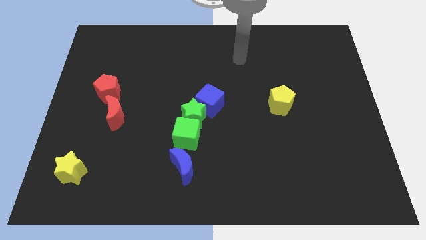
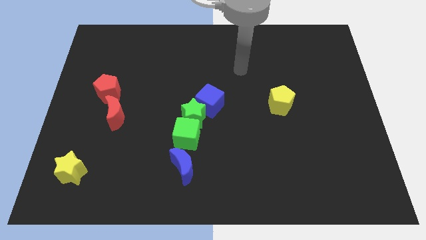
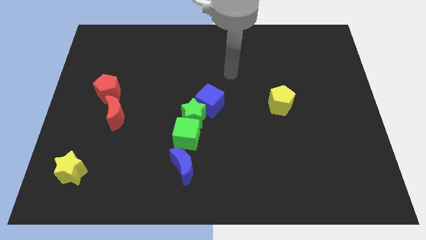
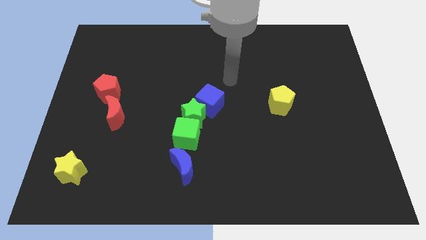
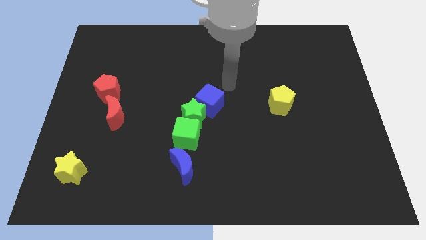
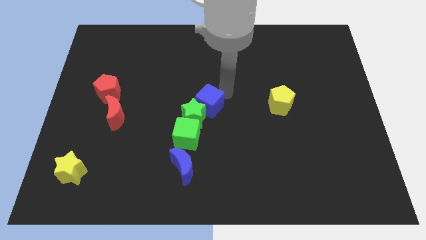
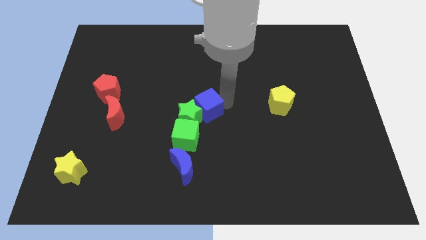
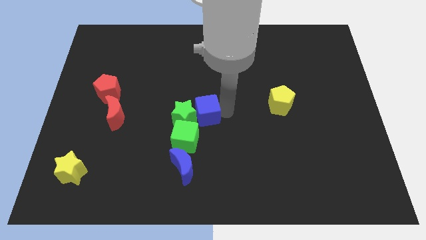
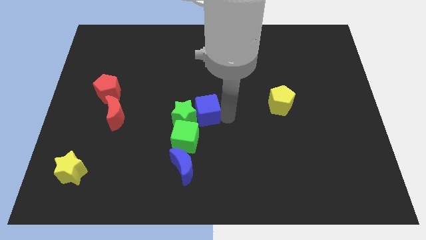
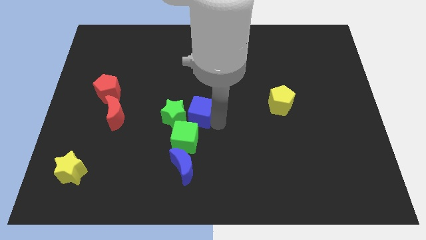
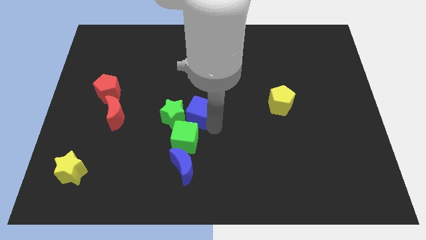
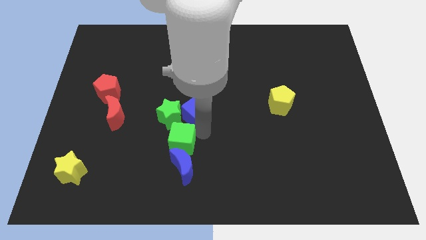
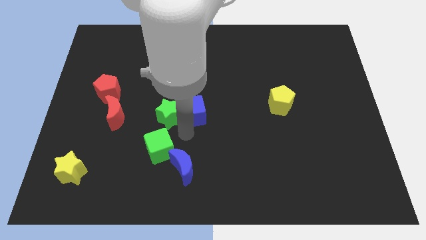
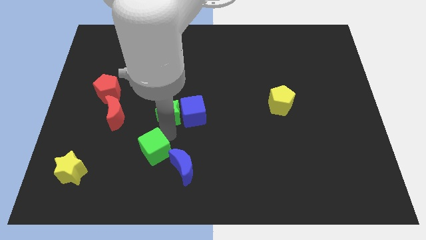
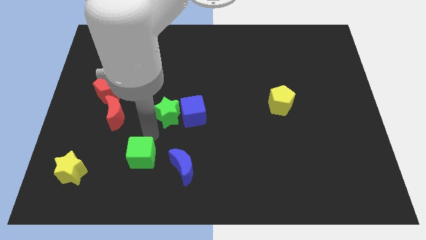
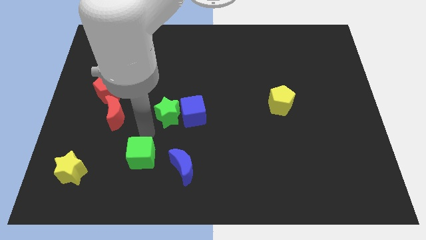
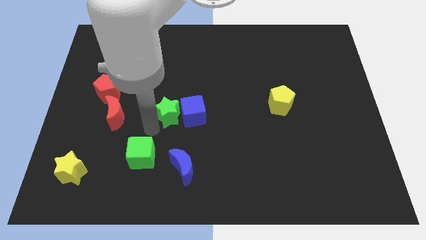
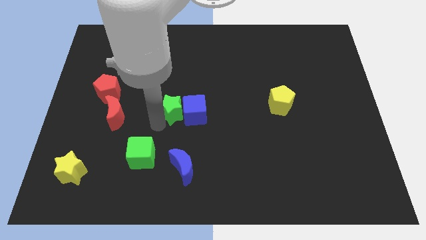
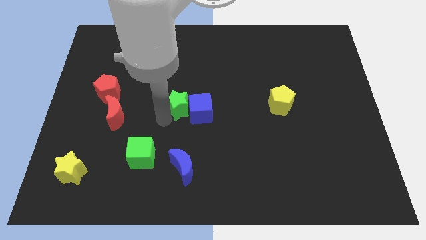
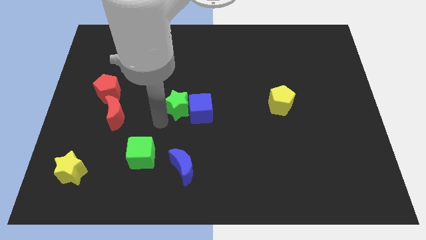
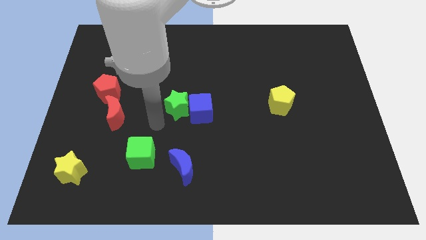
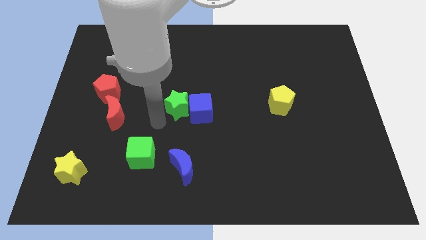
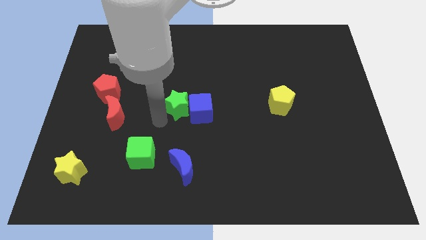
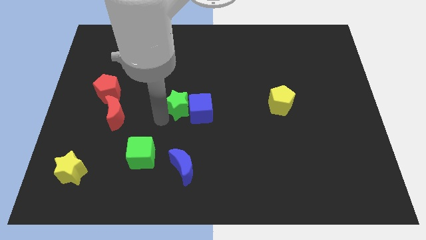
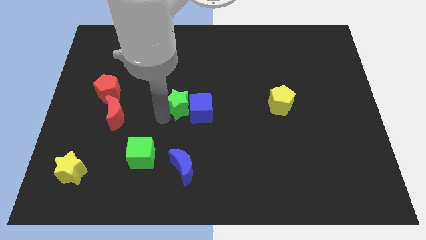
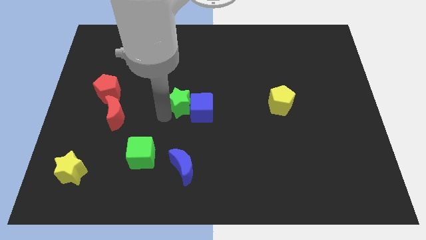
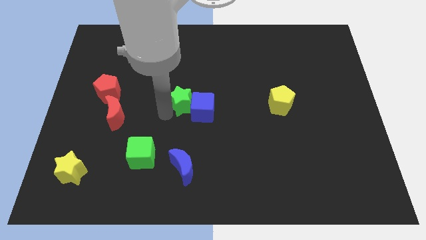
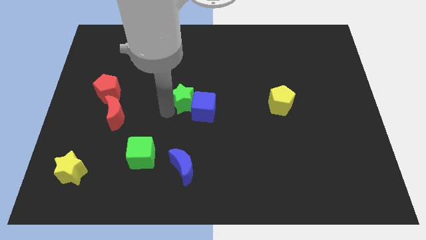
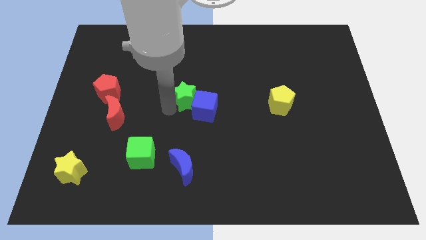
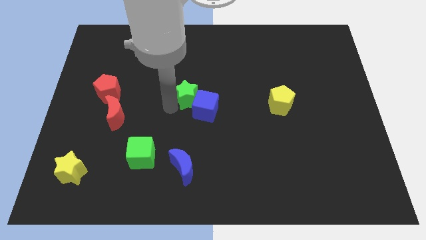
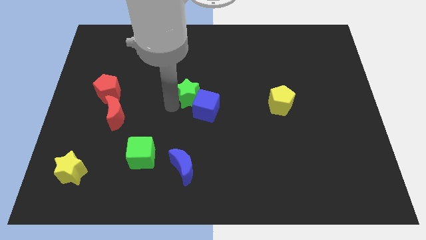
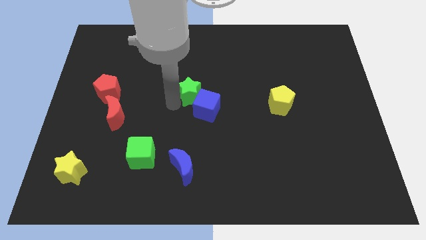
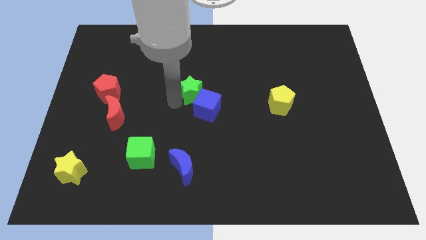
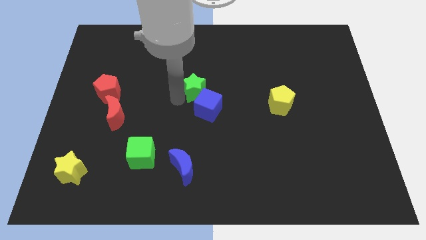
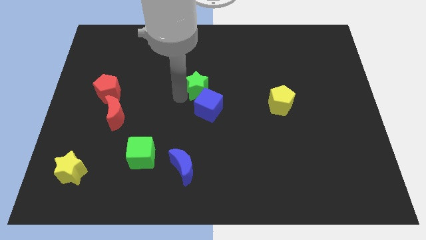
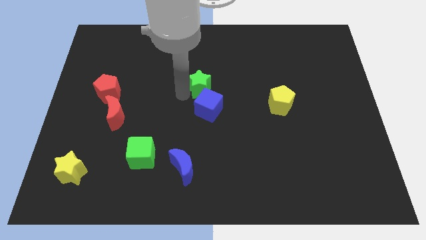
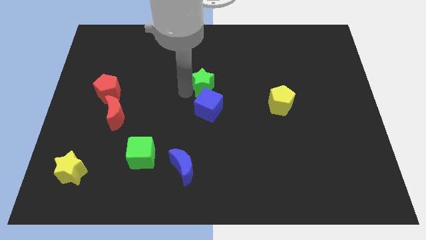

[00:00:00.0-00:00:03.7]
slightly slide the green star upwards and right diagonally

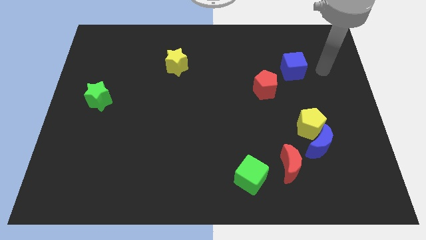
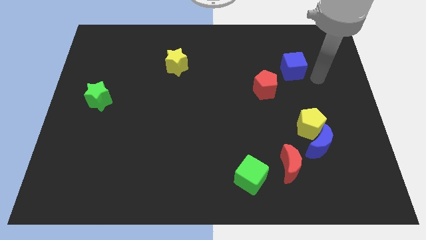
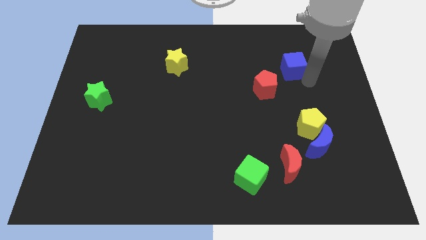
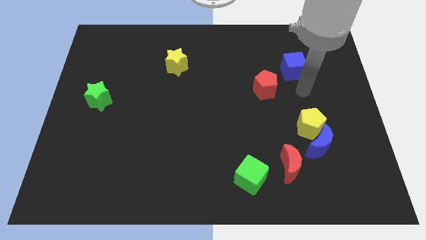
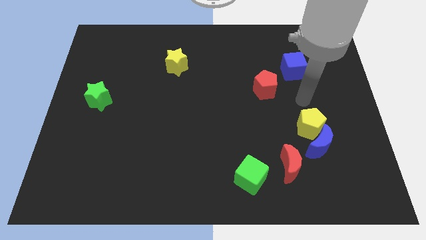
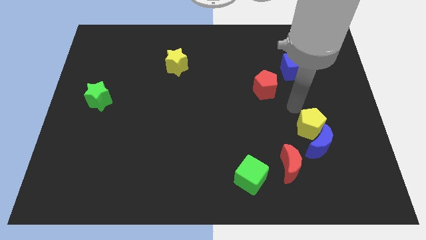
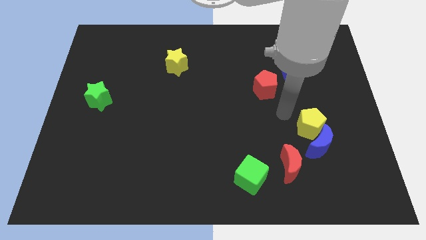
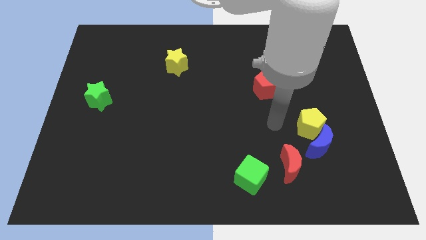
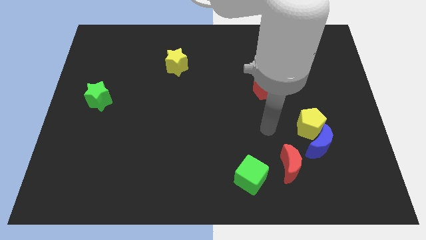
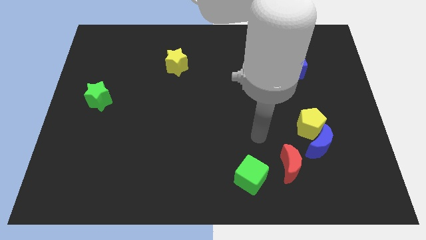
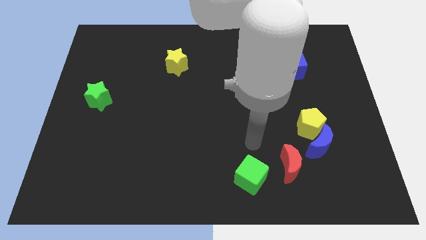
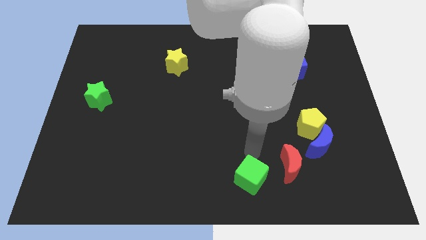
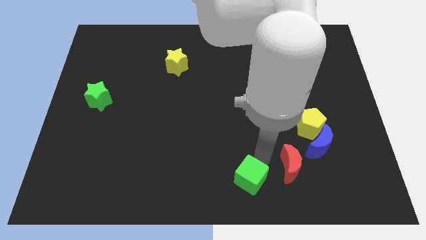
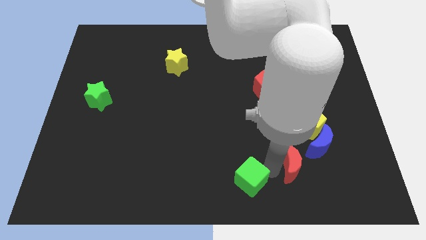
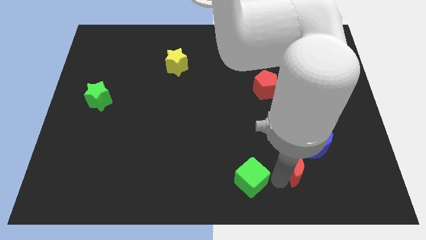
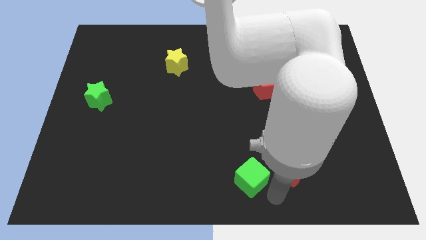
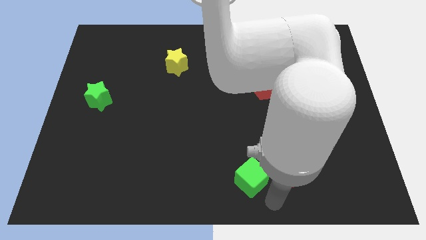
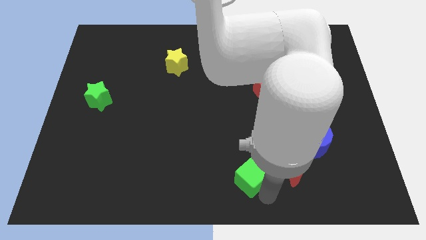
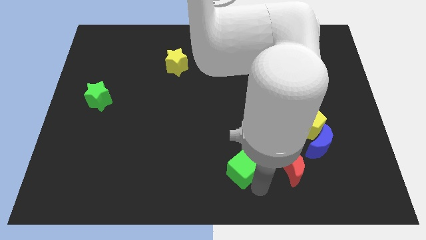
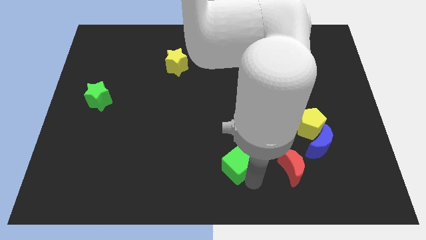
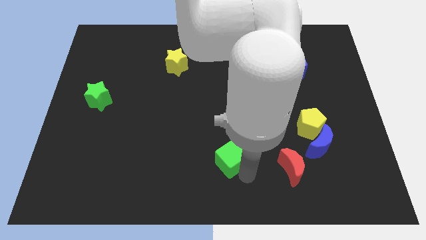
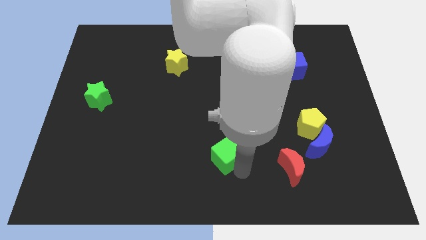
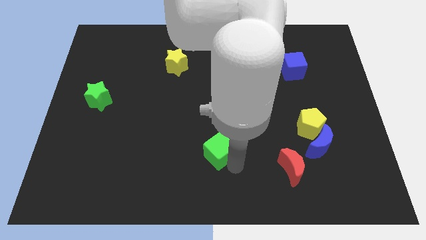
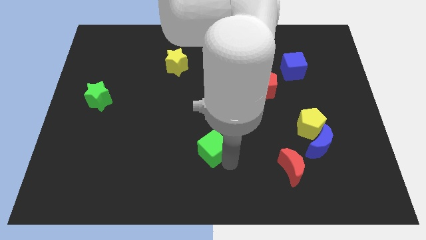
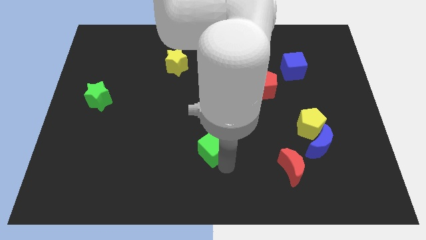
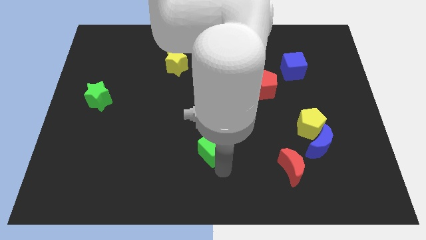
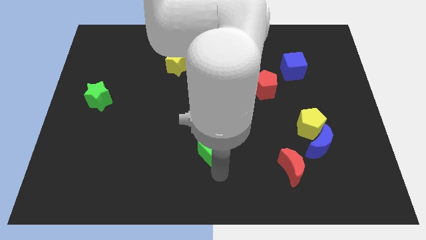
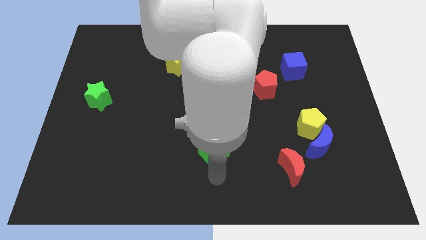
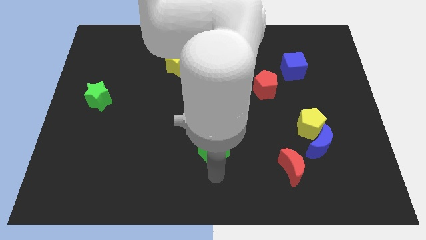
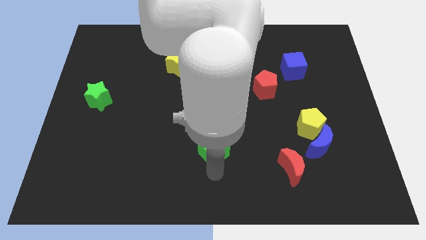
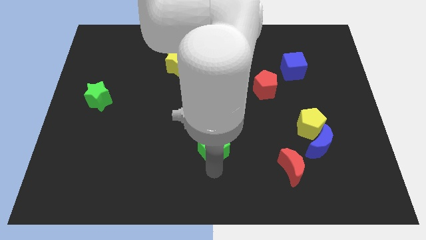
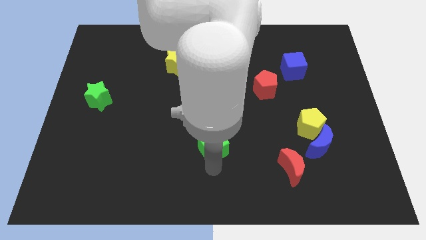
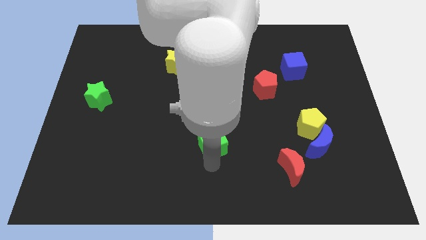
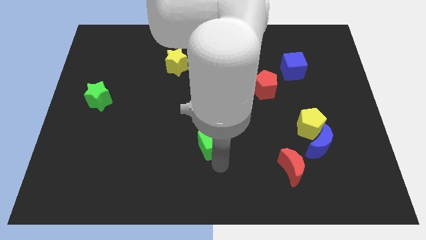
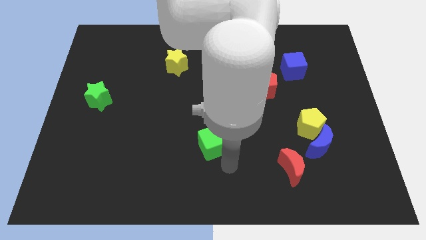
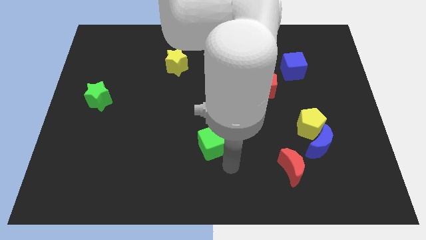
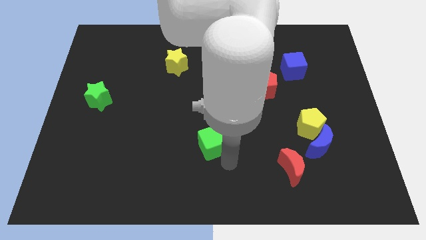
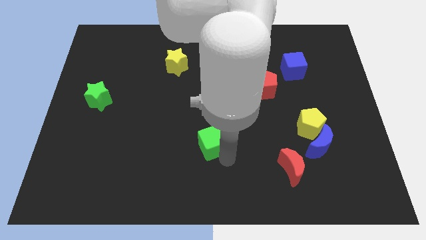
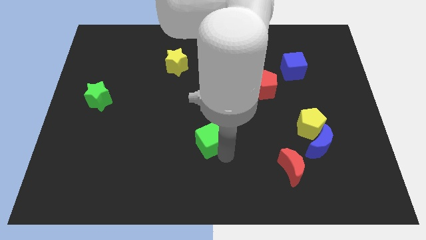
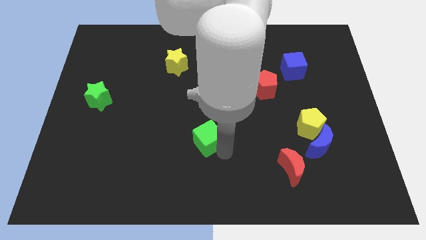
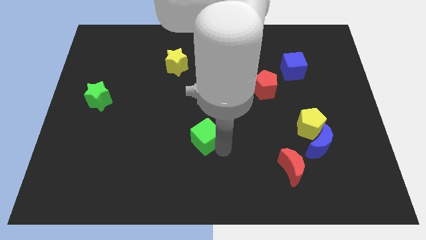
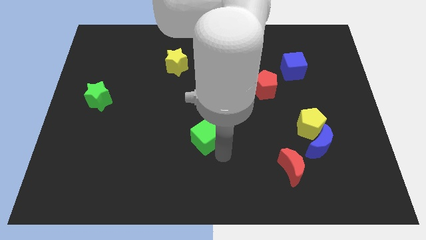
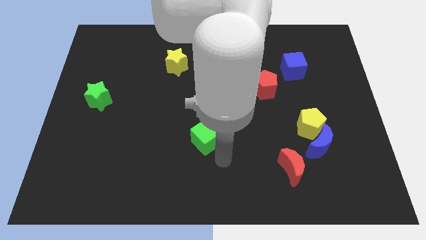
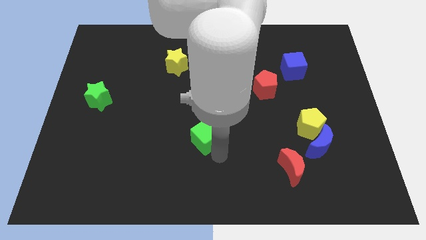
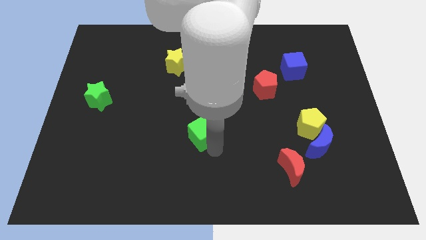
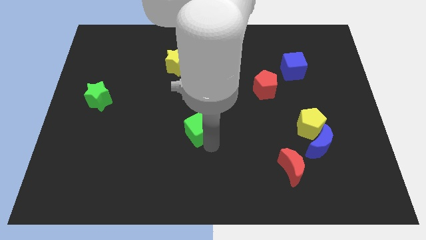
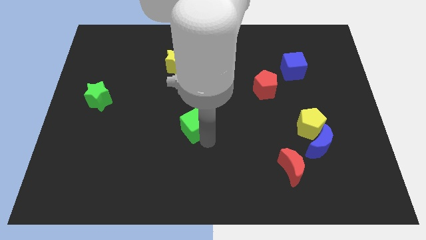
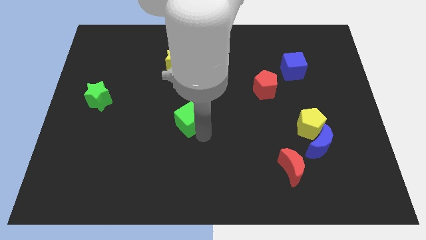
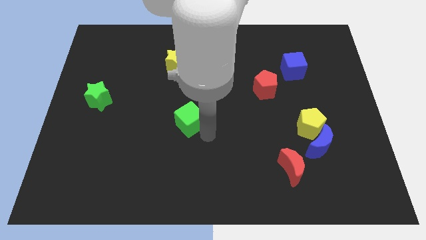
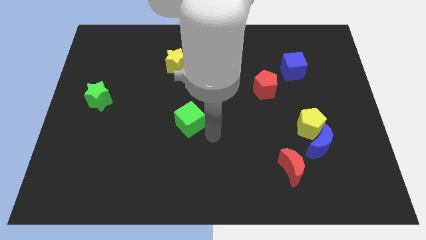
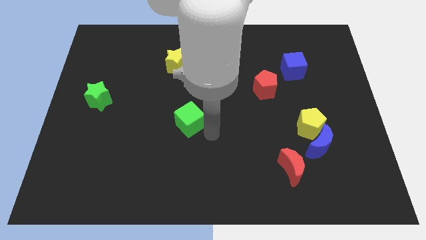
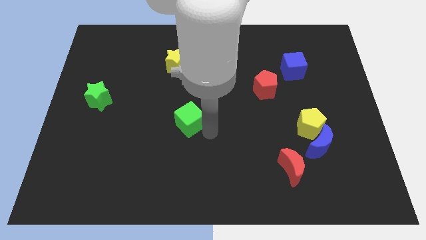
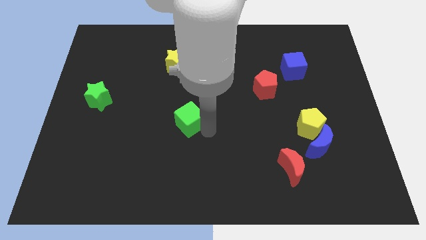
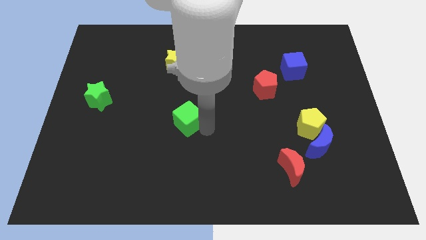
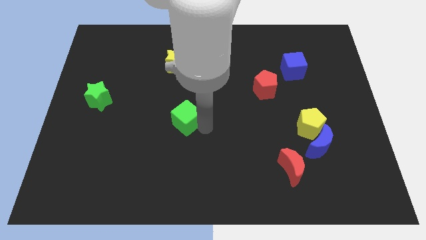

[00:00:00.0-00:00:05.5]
slide the green cube diagonally up and left
